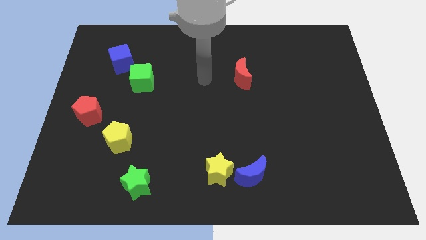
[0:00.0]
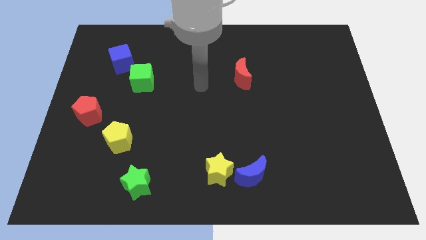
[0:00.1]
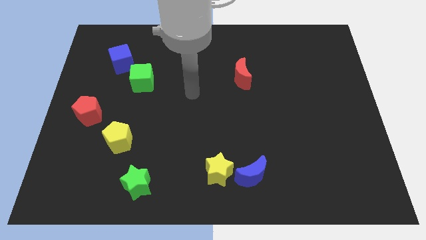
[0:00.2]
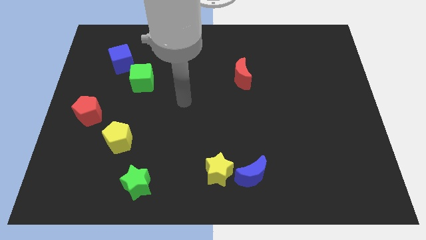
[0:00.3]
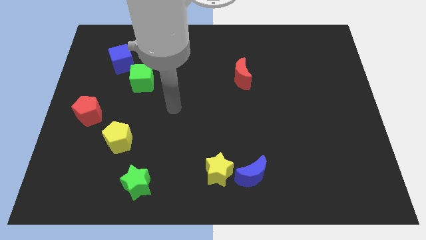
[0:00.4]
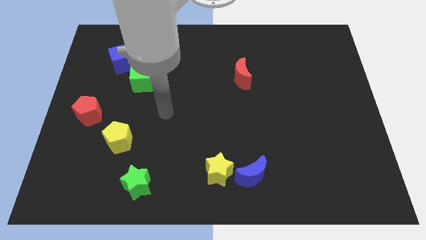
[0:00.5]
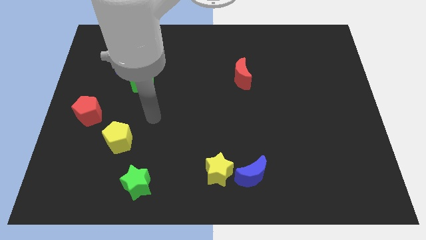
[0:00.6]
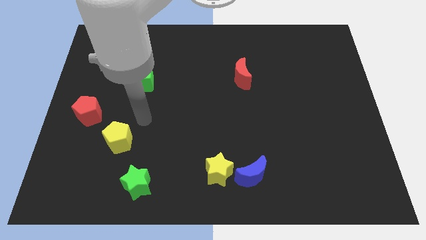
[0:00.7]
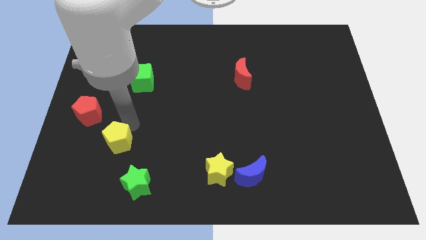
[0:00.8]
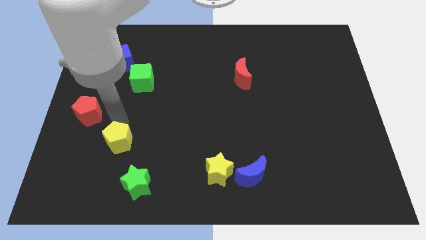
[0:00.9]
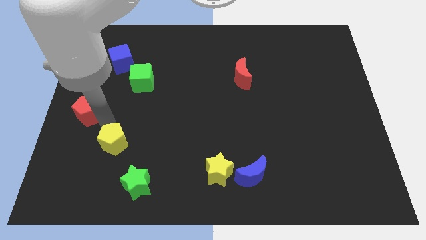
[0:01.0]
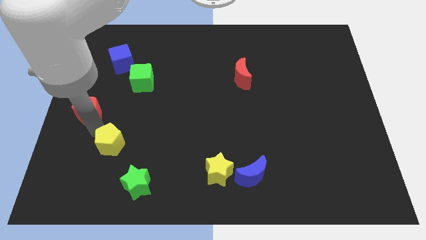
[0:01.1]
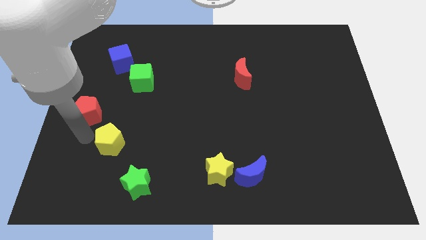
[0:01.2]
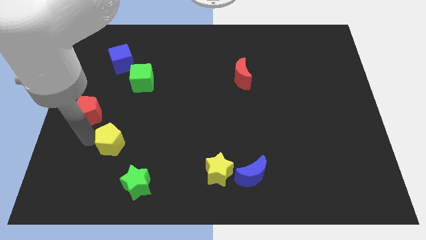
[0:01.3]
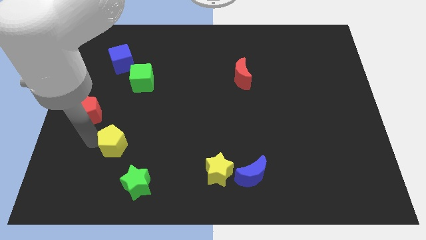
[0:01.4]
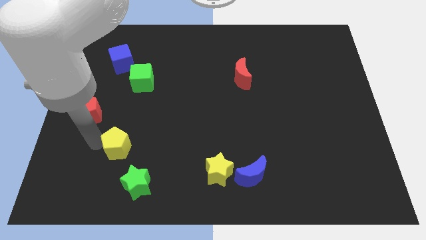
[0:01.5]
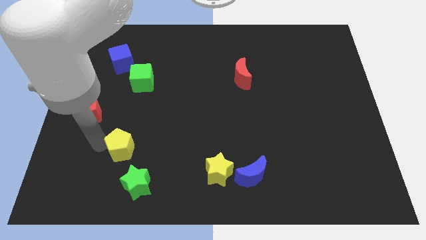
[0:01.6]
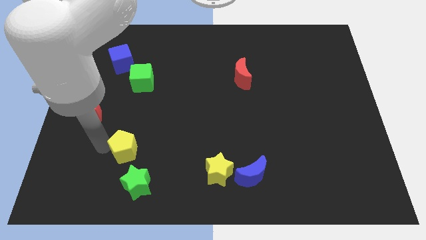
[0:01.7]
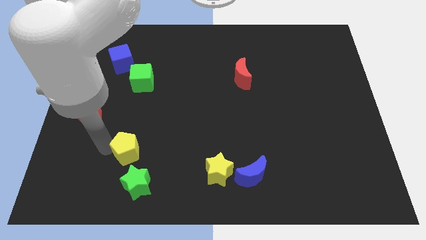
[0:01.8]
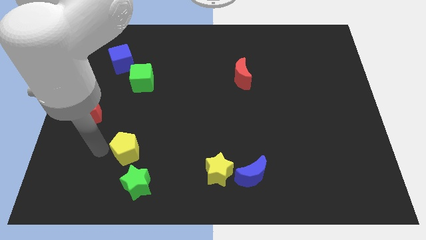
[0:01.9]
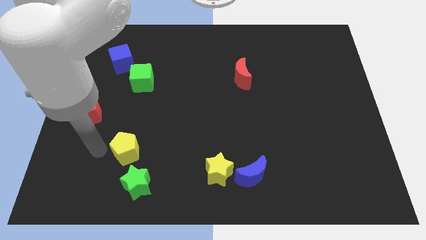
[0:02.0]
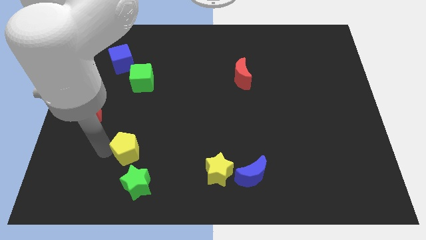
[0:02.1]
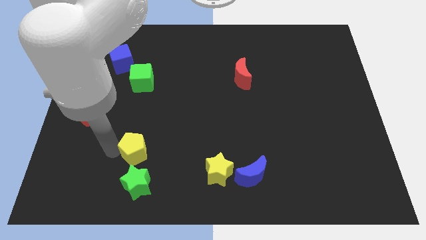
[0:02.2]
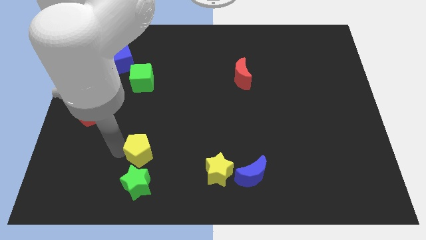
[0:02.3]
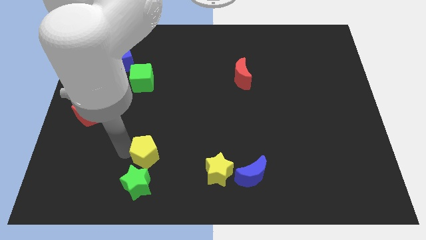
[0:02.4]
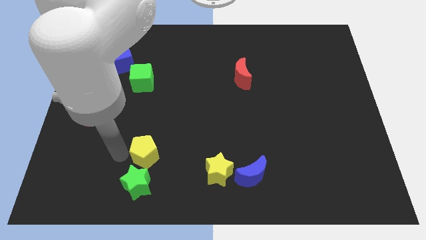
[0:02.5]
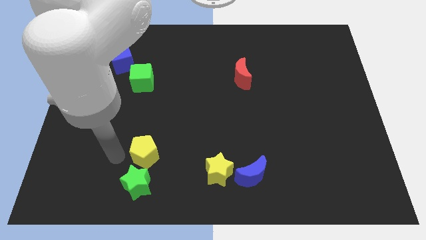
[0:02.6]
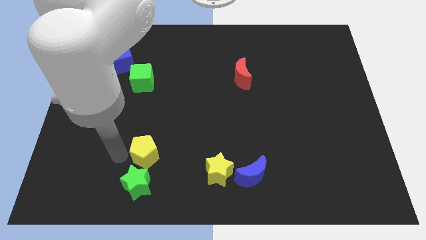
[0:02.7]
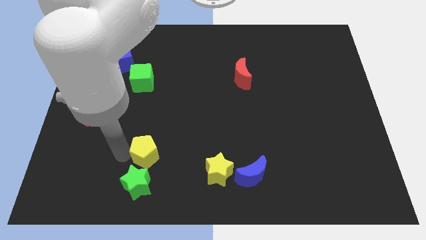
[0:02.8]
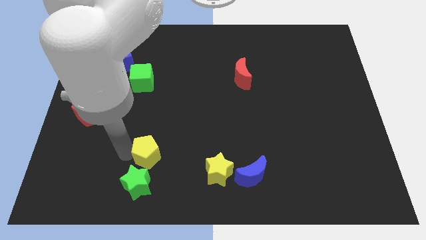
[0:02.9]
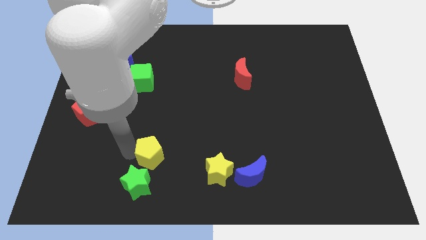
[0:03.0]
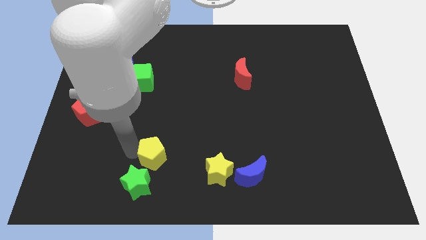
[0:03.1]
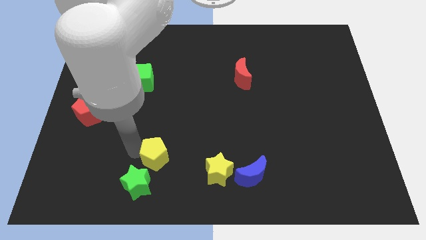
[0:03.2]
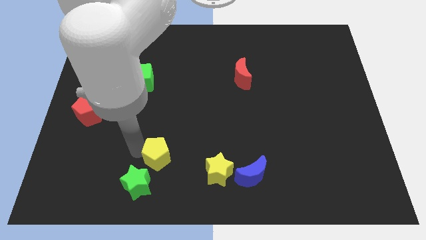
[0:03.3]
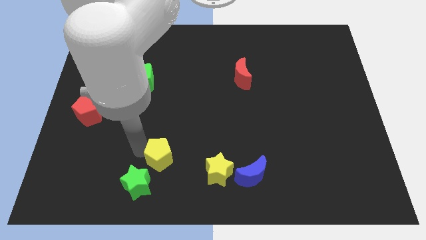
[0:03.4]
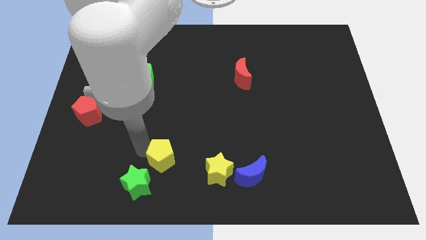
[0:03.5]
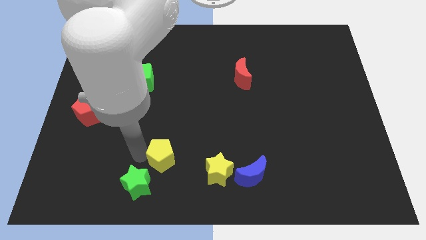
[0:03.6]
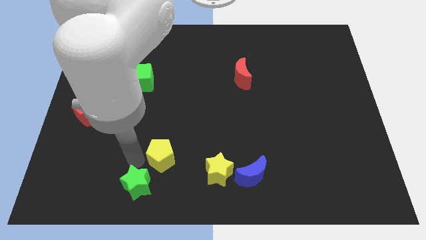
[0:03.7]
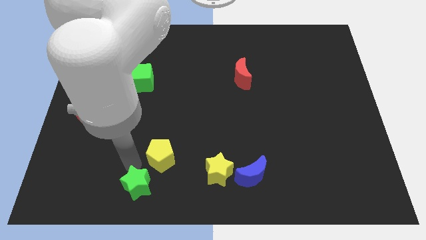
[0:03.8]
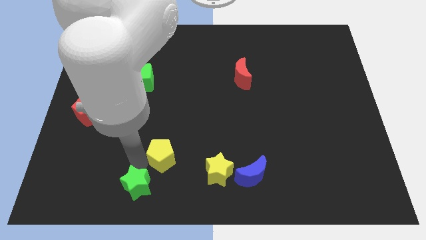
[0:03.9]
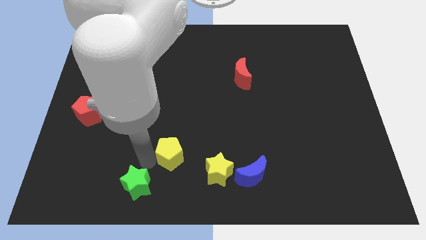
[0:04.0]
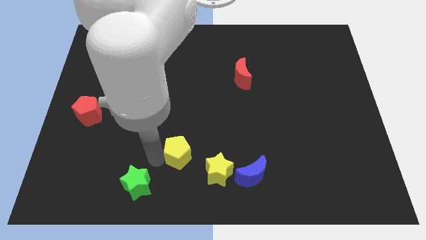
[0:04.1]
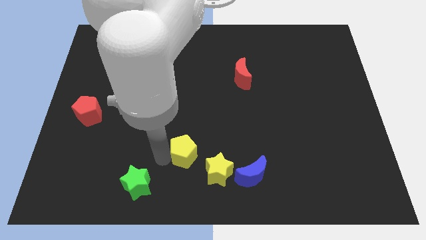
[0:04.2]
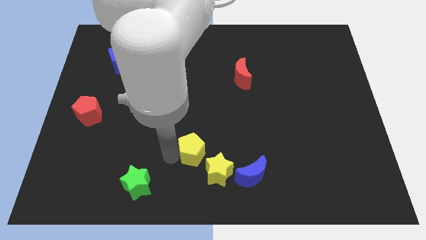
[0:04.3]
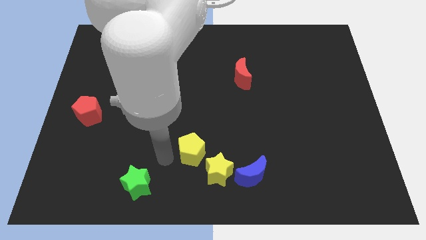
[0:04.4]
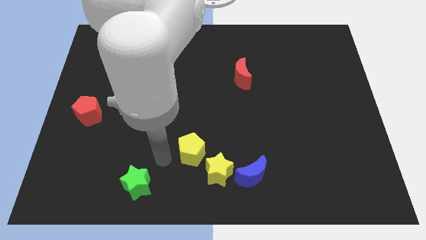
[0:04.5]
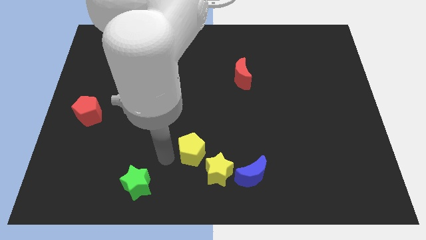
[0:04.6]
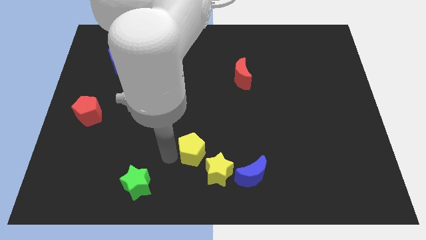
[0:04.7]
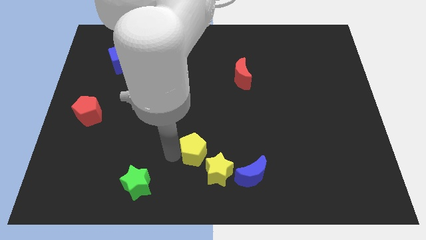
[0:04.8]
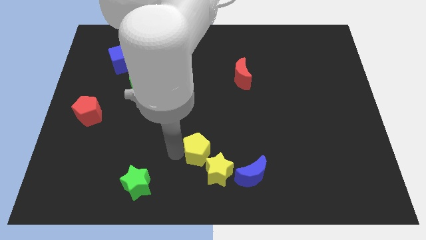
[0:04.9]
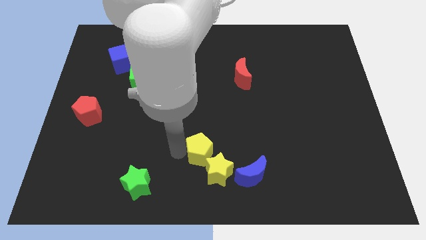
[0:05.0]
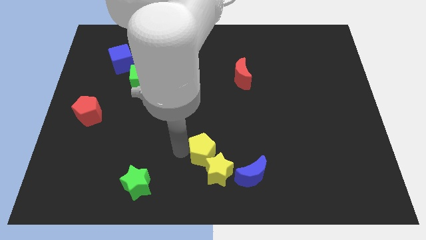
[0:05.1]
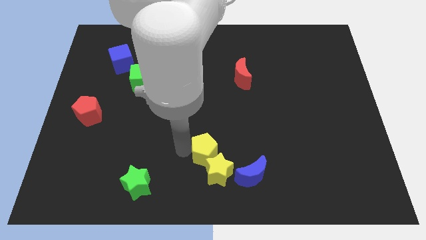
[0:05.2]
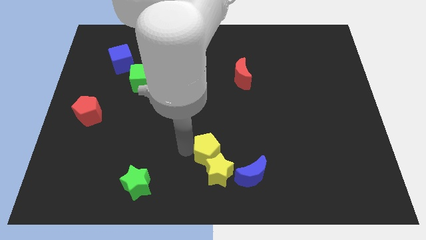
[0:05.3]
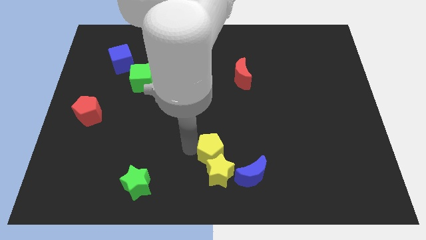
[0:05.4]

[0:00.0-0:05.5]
move the yellow pentagon right

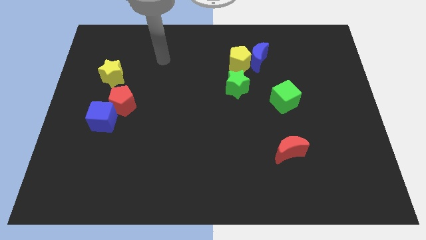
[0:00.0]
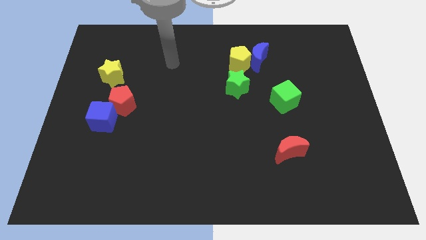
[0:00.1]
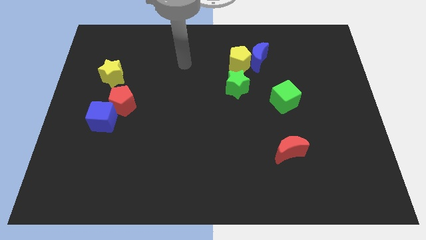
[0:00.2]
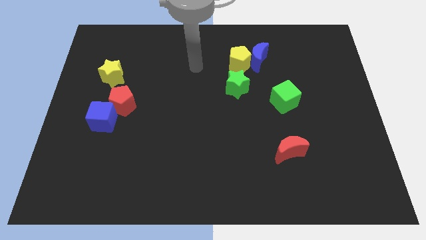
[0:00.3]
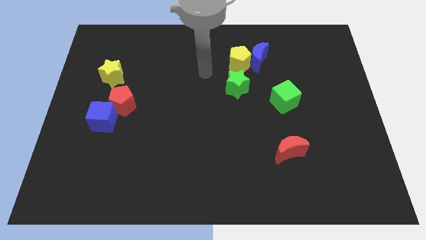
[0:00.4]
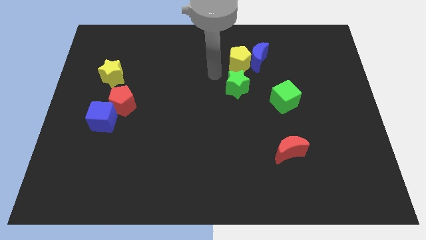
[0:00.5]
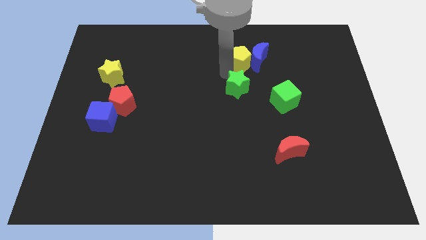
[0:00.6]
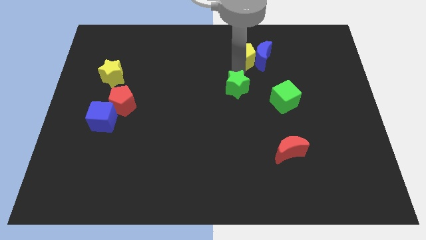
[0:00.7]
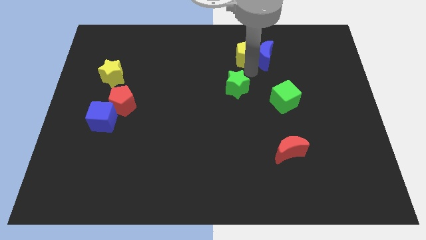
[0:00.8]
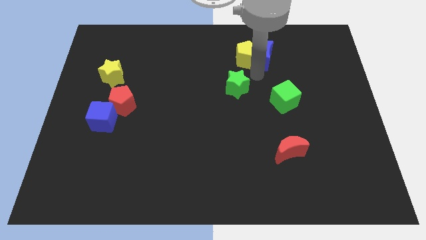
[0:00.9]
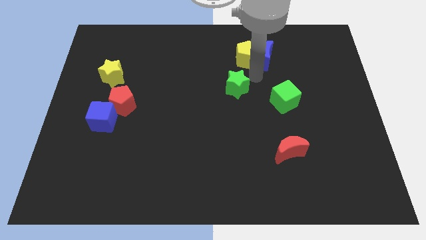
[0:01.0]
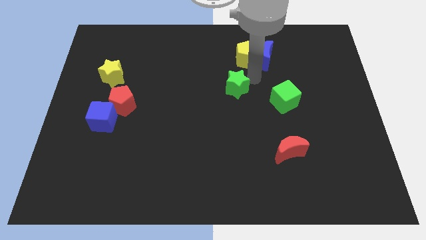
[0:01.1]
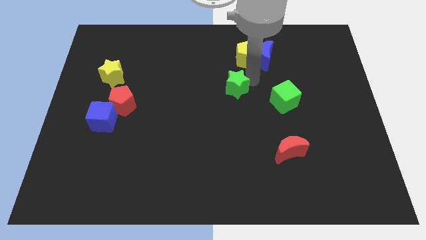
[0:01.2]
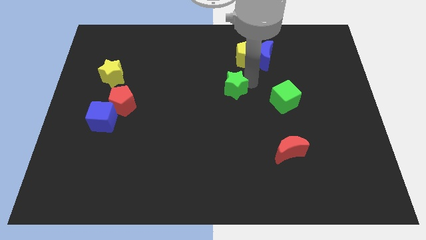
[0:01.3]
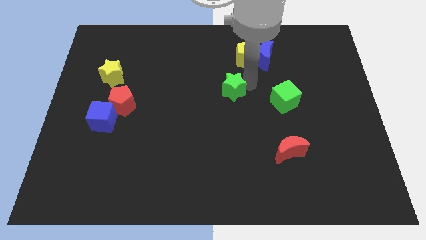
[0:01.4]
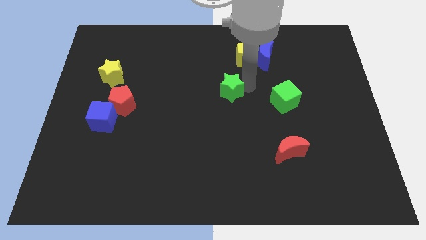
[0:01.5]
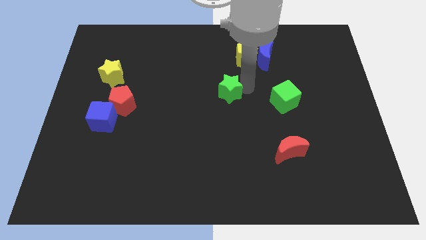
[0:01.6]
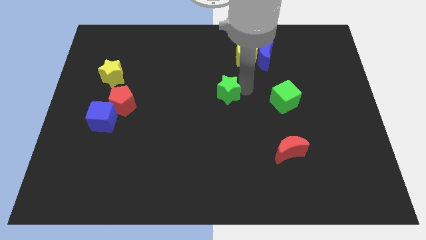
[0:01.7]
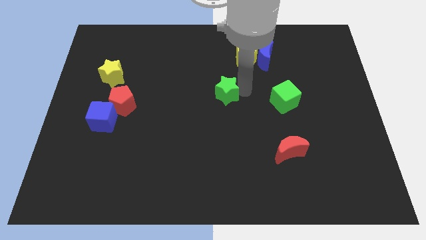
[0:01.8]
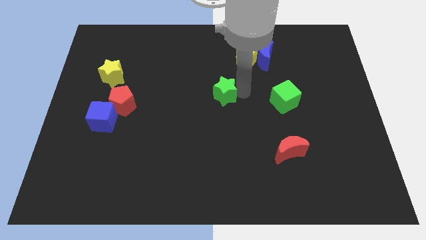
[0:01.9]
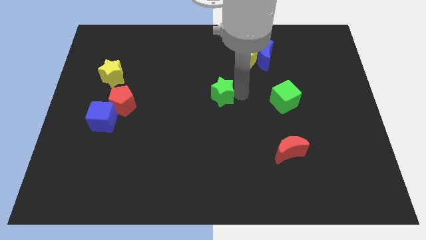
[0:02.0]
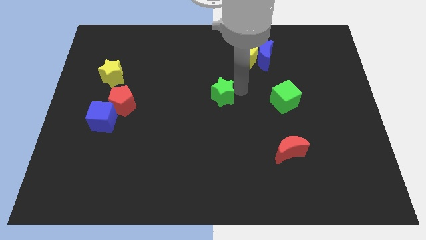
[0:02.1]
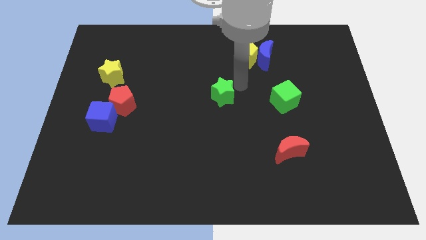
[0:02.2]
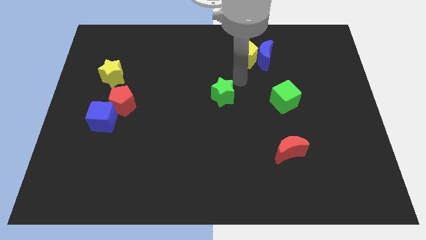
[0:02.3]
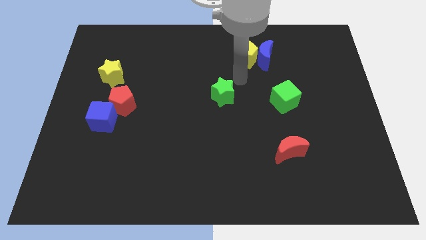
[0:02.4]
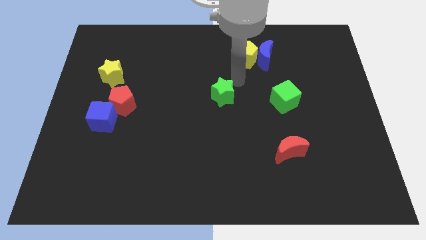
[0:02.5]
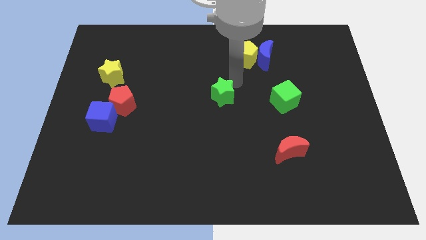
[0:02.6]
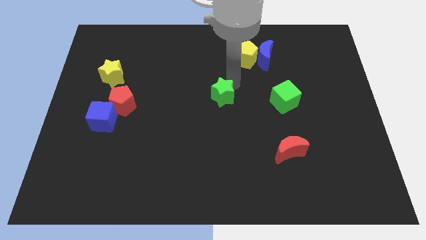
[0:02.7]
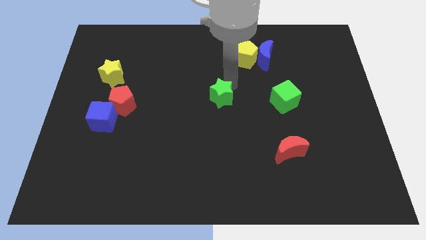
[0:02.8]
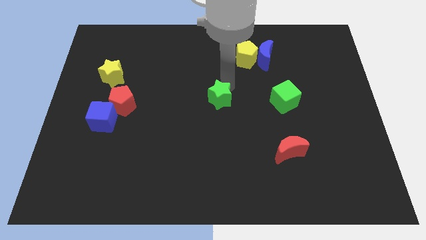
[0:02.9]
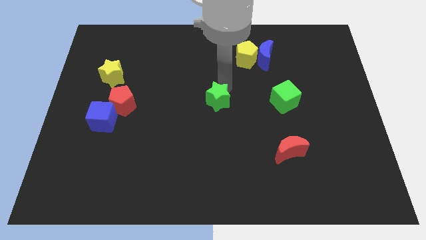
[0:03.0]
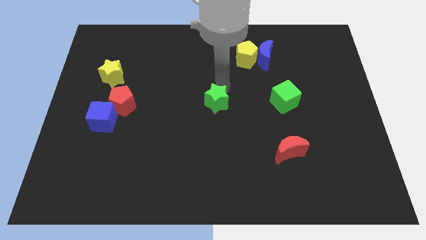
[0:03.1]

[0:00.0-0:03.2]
push the green star diagonally downwards and left somewhat
